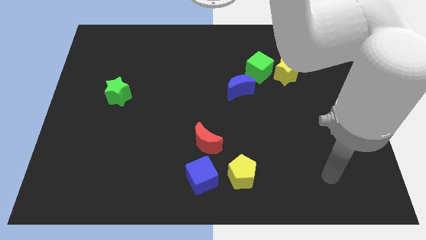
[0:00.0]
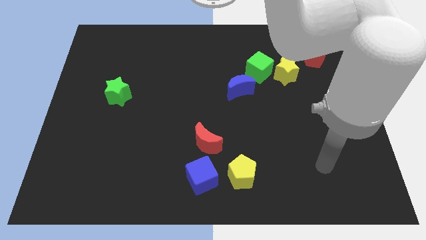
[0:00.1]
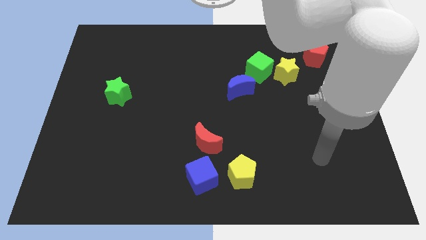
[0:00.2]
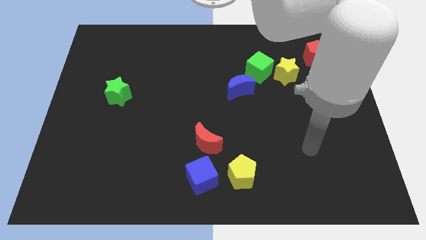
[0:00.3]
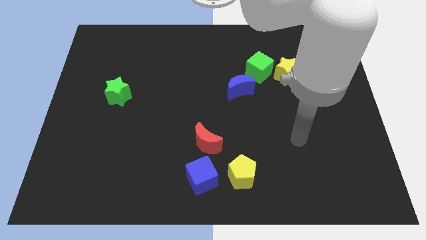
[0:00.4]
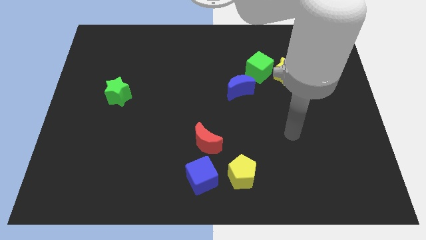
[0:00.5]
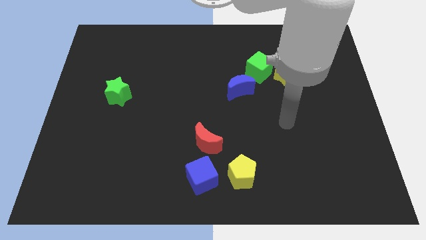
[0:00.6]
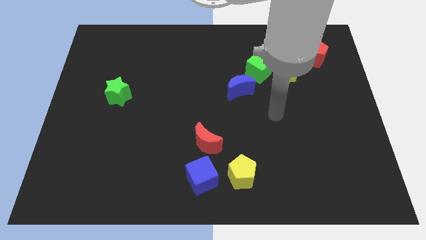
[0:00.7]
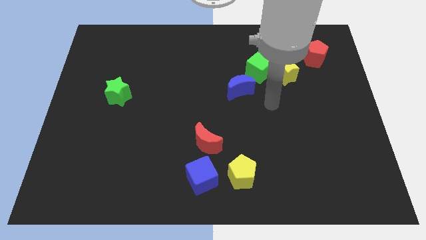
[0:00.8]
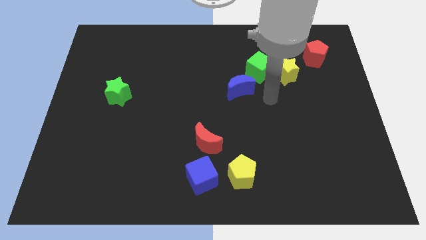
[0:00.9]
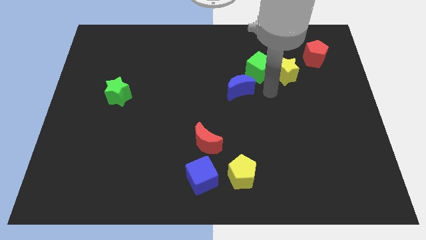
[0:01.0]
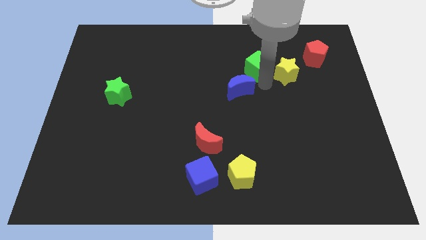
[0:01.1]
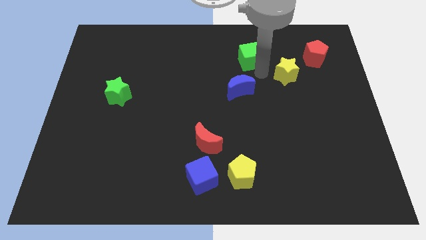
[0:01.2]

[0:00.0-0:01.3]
separate the yellow star from the green cube

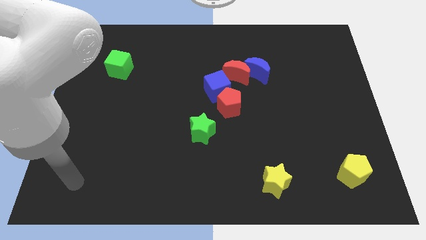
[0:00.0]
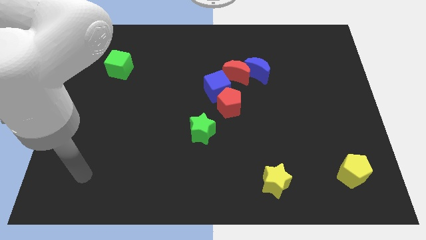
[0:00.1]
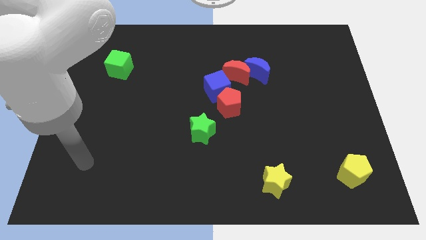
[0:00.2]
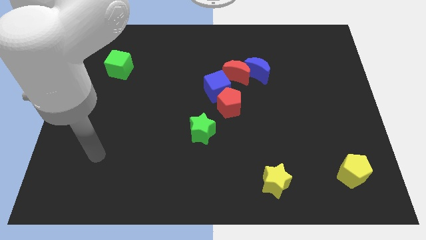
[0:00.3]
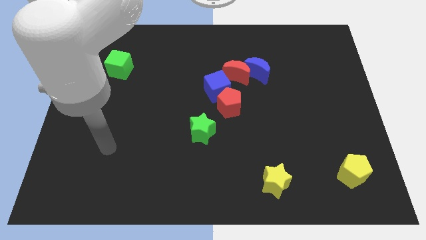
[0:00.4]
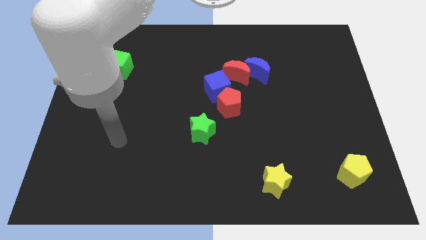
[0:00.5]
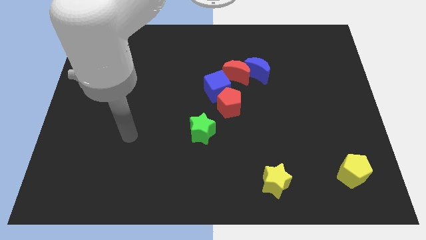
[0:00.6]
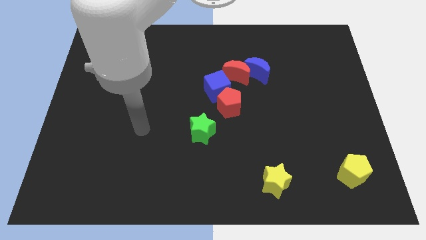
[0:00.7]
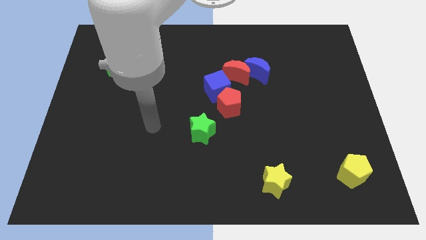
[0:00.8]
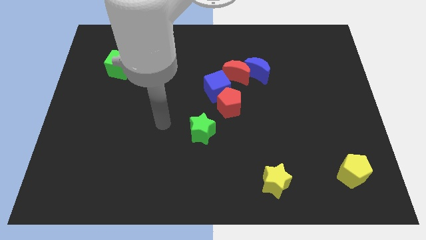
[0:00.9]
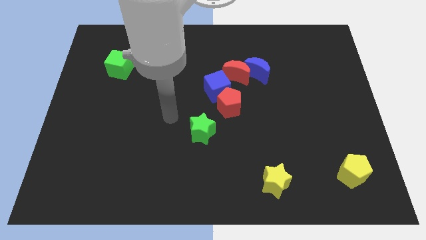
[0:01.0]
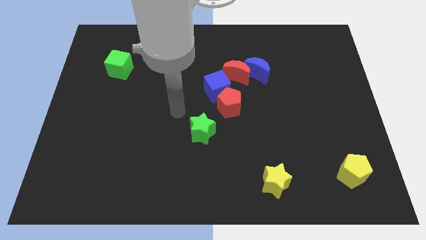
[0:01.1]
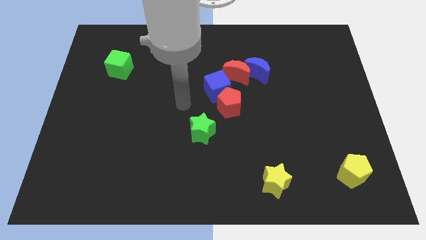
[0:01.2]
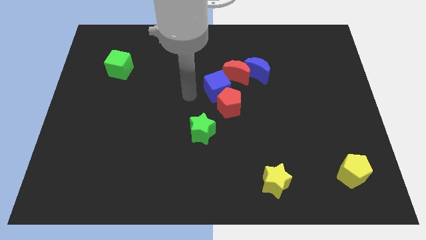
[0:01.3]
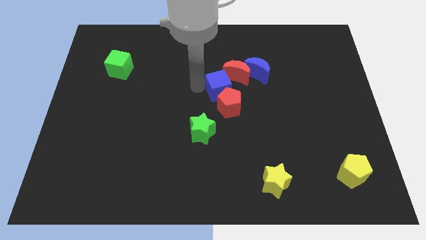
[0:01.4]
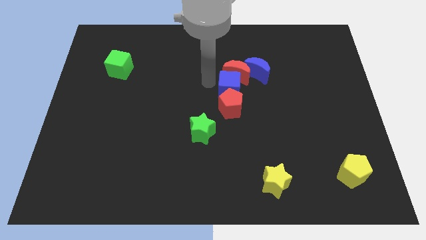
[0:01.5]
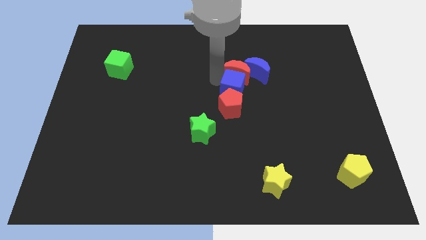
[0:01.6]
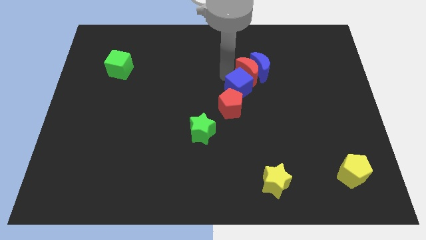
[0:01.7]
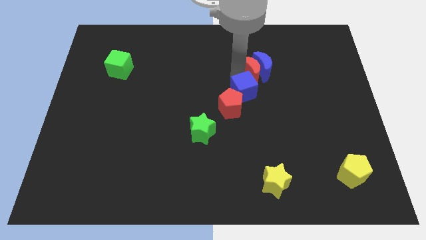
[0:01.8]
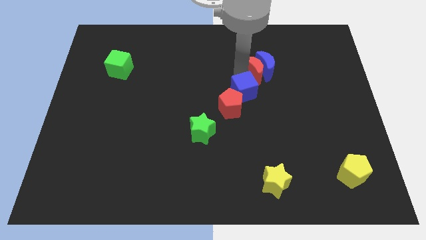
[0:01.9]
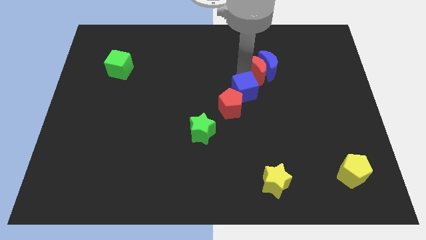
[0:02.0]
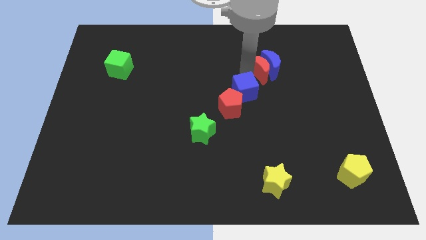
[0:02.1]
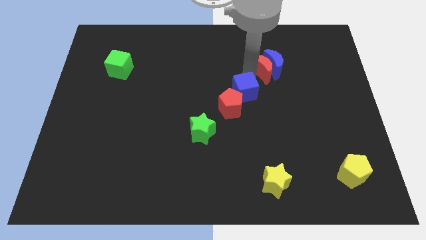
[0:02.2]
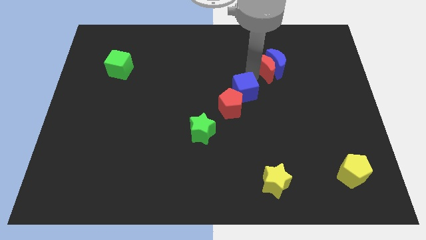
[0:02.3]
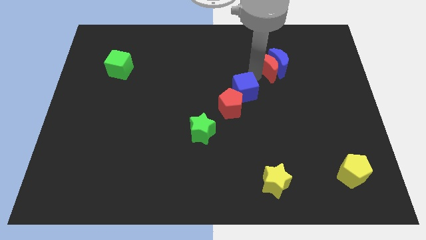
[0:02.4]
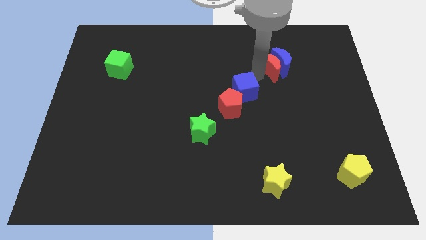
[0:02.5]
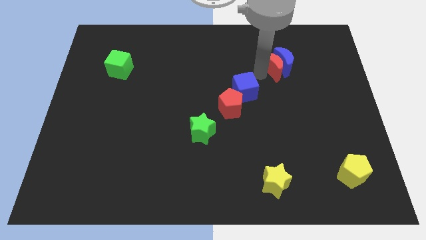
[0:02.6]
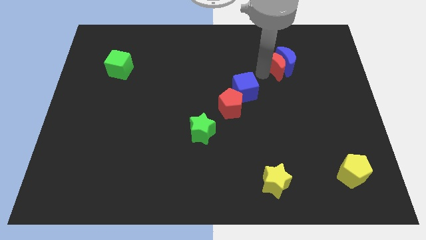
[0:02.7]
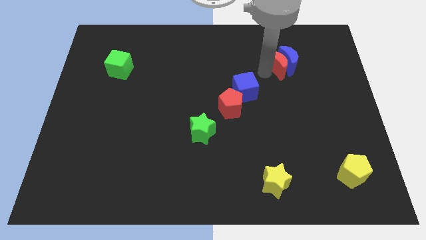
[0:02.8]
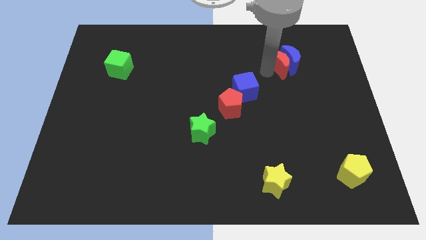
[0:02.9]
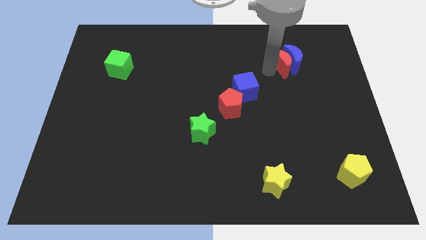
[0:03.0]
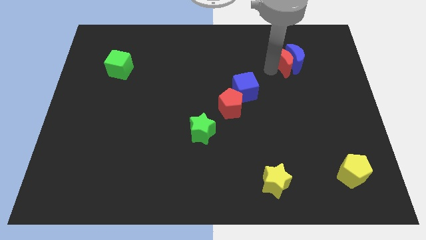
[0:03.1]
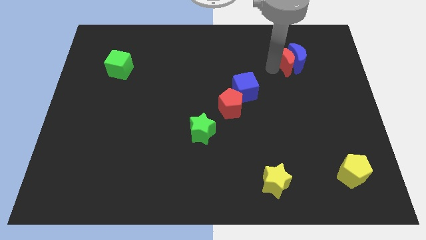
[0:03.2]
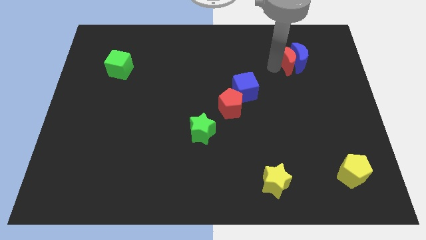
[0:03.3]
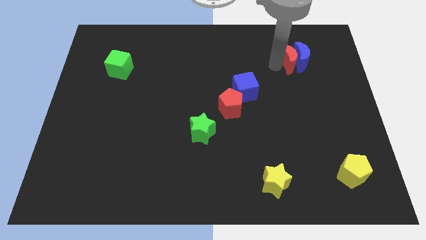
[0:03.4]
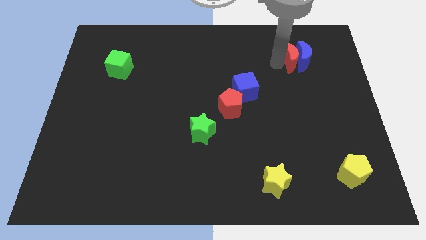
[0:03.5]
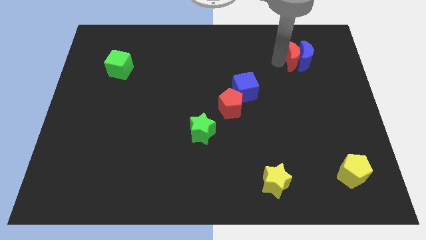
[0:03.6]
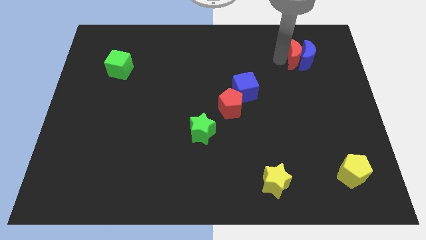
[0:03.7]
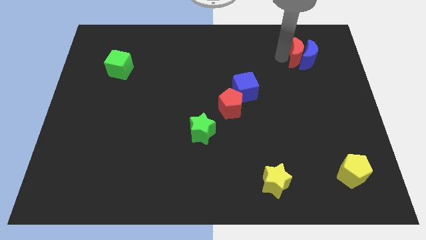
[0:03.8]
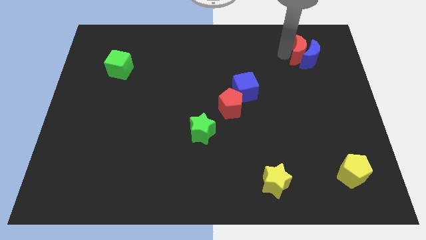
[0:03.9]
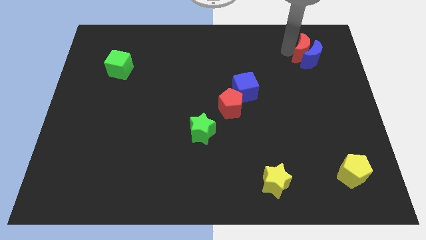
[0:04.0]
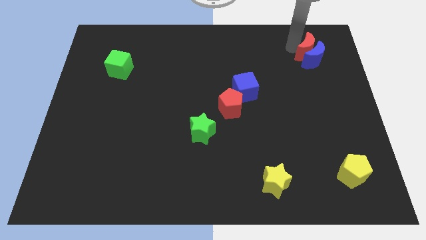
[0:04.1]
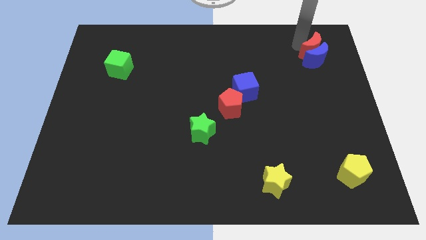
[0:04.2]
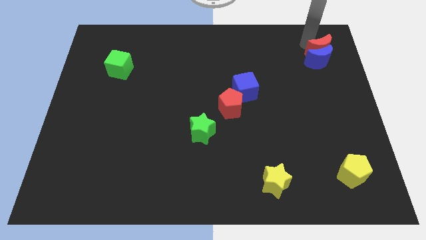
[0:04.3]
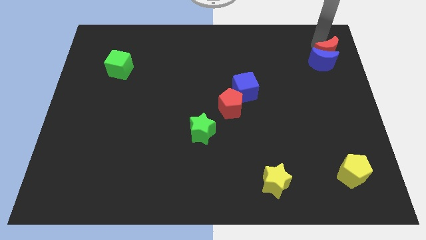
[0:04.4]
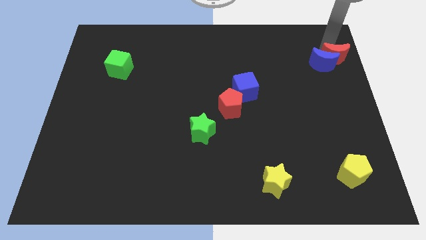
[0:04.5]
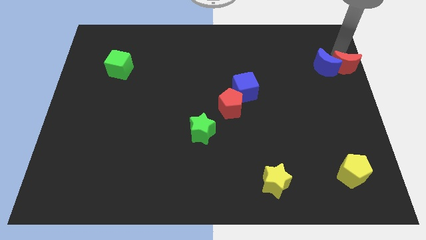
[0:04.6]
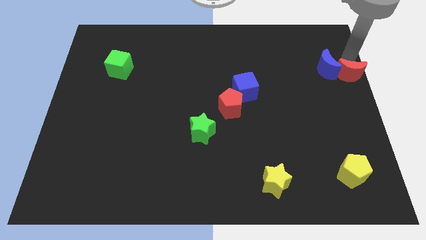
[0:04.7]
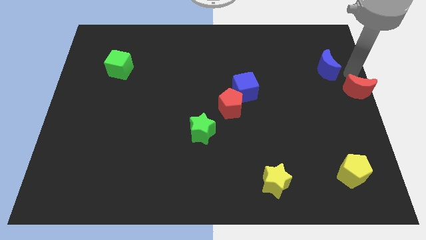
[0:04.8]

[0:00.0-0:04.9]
move the blue moon away from the red moon

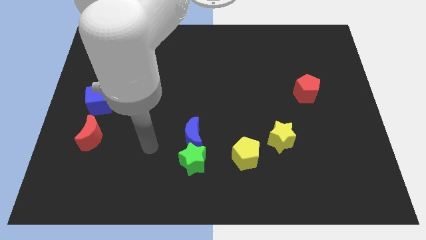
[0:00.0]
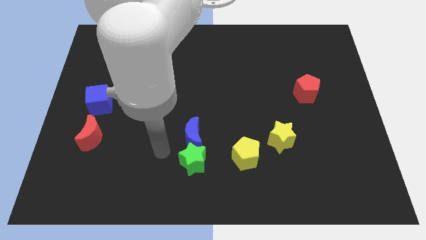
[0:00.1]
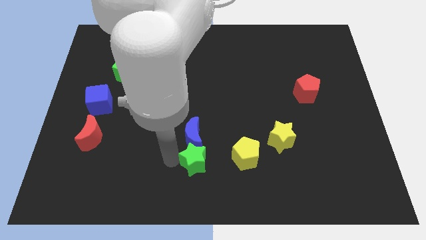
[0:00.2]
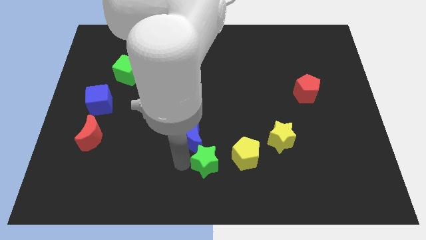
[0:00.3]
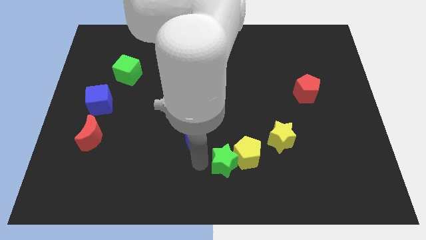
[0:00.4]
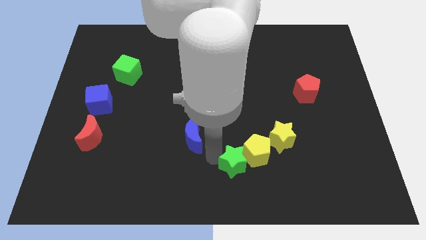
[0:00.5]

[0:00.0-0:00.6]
separate the blue moon from the green star

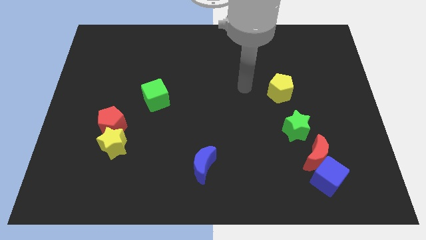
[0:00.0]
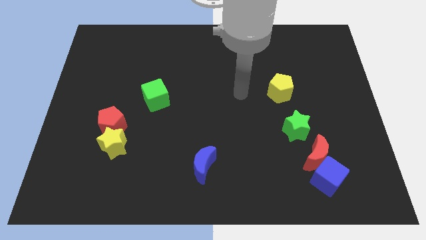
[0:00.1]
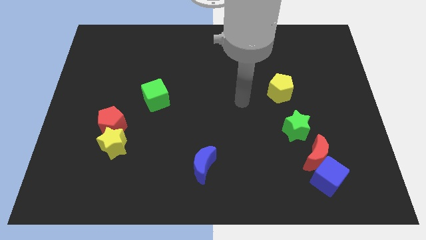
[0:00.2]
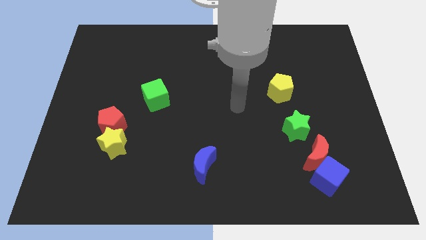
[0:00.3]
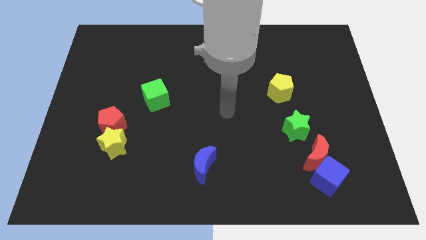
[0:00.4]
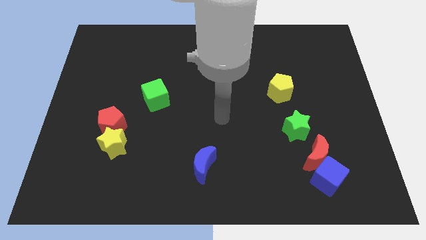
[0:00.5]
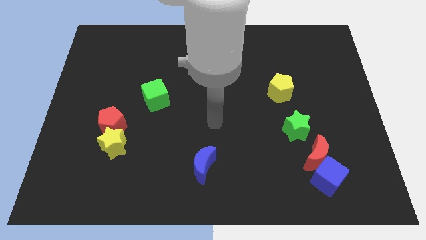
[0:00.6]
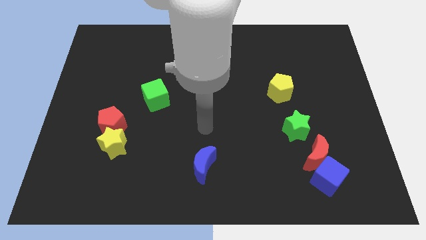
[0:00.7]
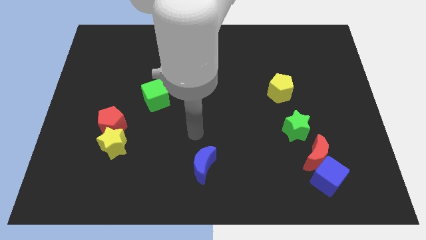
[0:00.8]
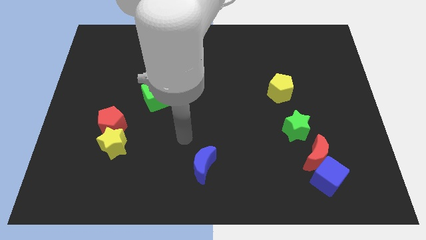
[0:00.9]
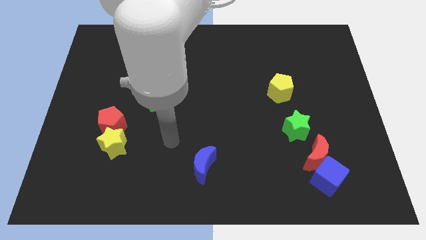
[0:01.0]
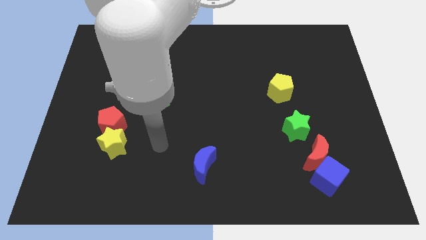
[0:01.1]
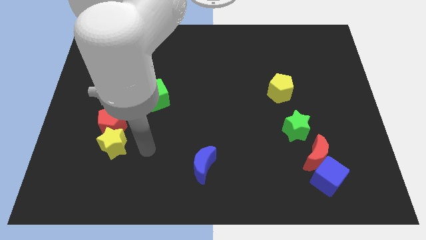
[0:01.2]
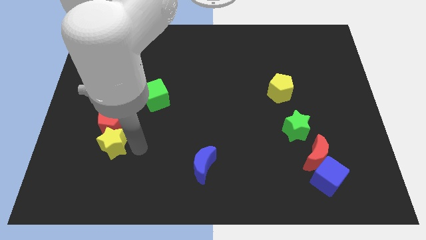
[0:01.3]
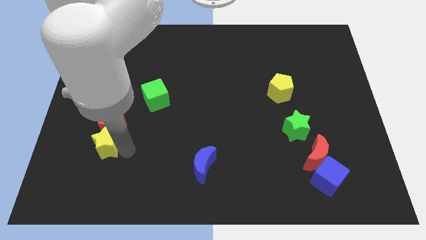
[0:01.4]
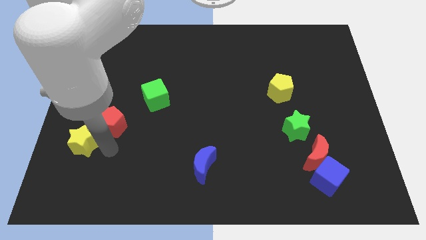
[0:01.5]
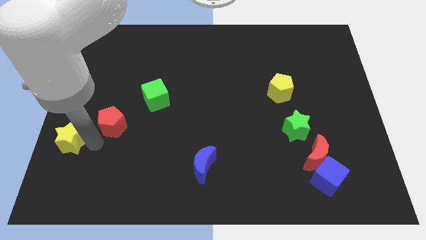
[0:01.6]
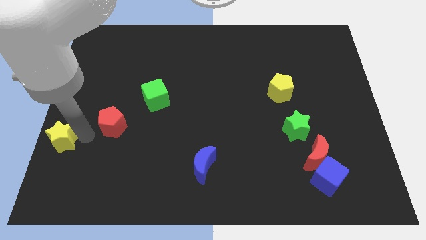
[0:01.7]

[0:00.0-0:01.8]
pull the red pentagon apart from the yellow star

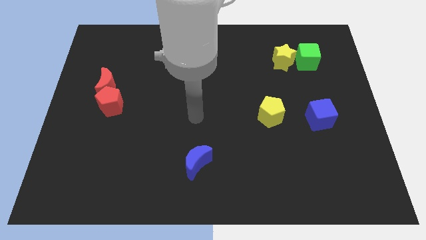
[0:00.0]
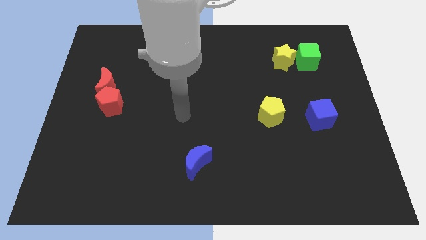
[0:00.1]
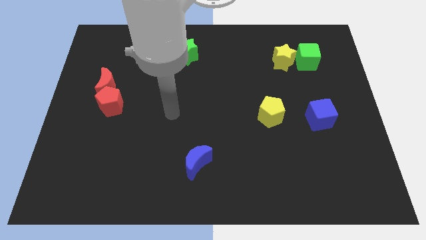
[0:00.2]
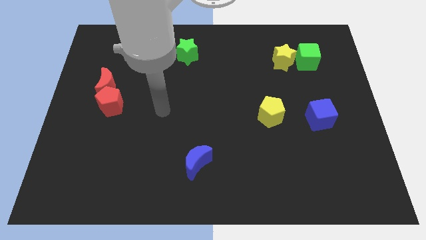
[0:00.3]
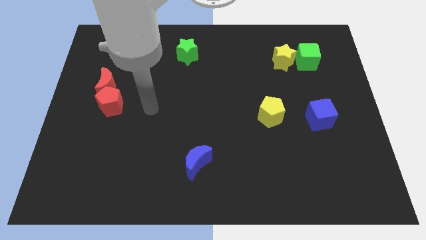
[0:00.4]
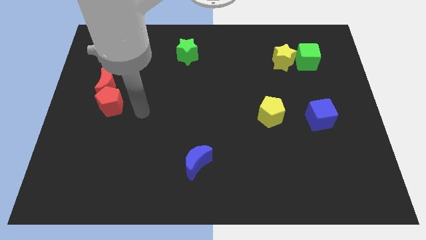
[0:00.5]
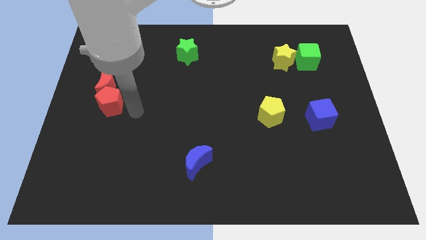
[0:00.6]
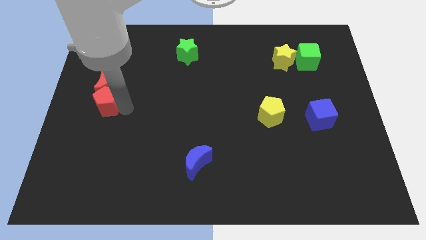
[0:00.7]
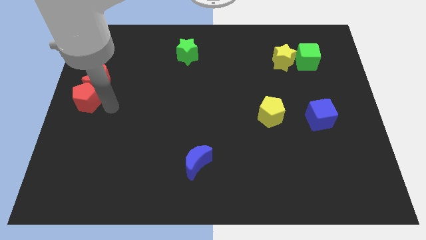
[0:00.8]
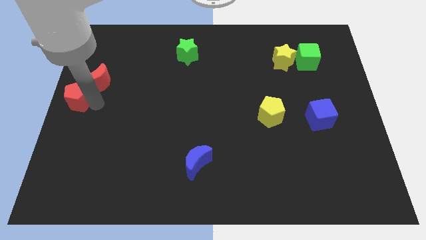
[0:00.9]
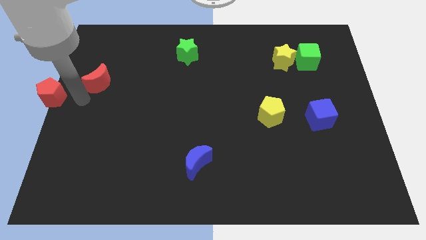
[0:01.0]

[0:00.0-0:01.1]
move the red moon away from the red pentagon
